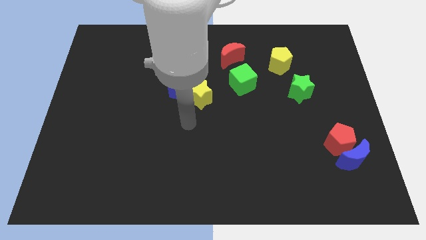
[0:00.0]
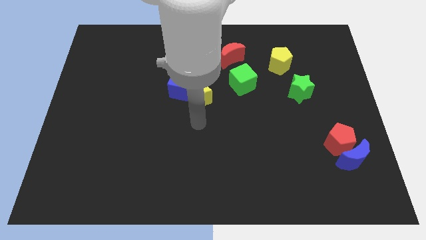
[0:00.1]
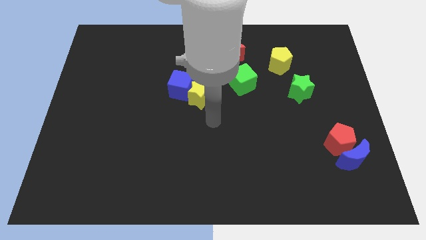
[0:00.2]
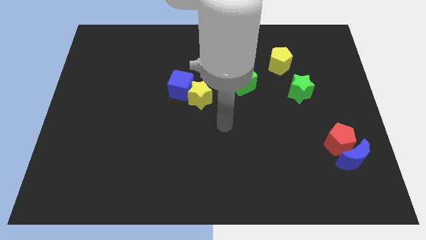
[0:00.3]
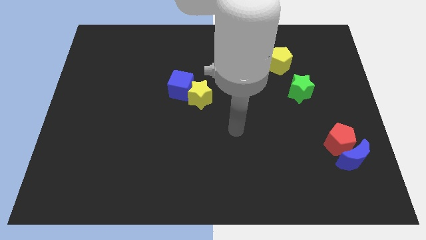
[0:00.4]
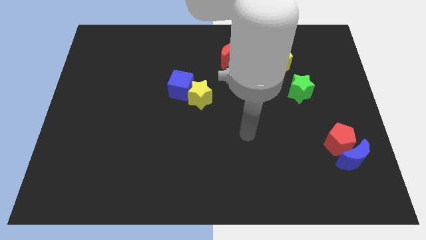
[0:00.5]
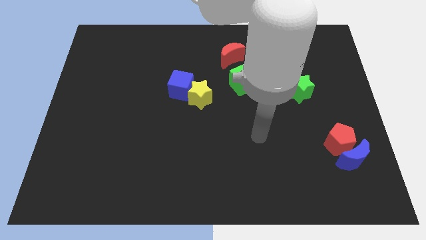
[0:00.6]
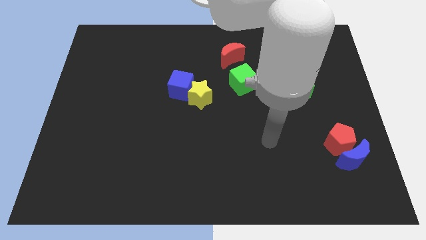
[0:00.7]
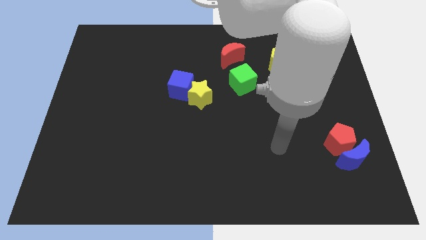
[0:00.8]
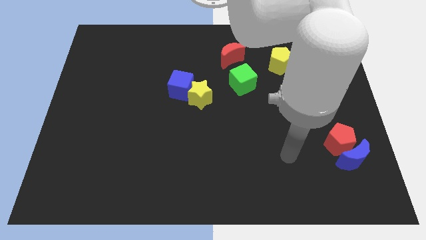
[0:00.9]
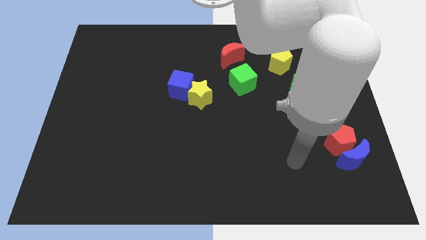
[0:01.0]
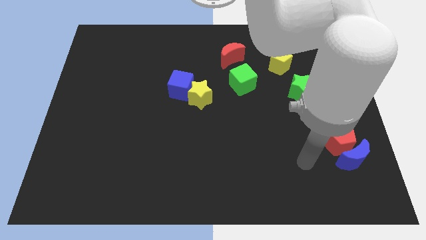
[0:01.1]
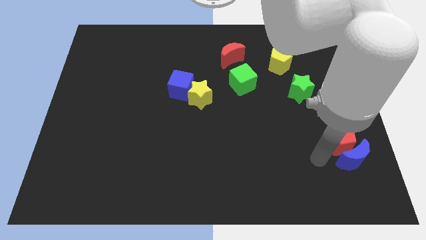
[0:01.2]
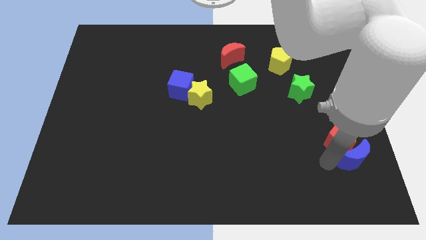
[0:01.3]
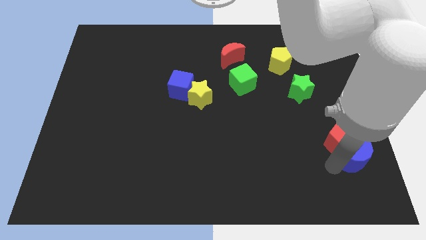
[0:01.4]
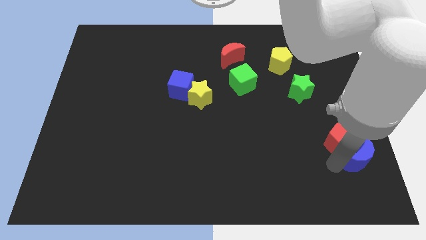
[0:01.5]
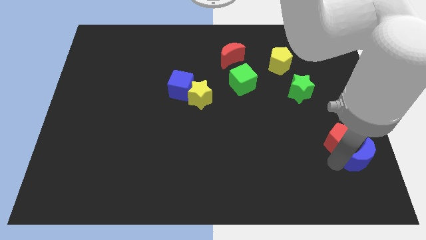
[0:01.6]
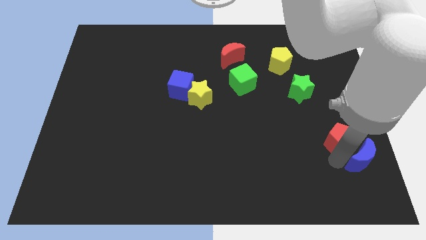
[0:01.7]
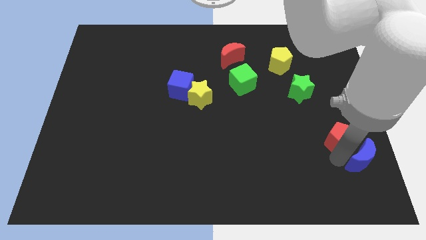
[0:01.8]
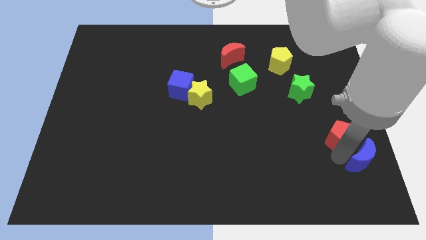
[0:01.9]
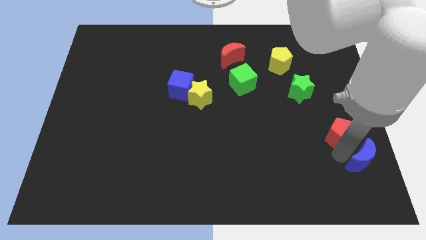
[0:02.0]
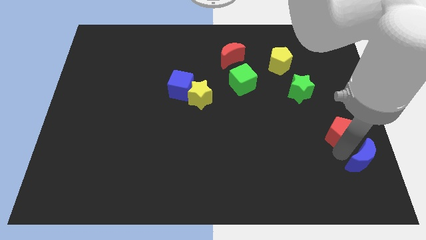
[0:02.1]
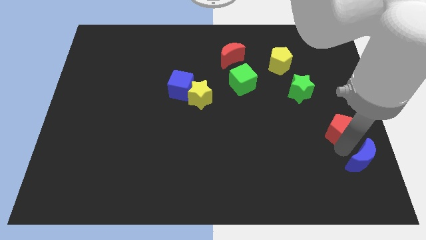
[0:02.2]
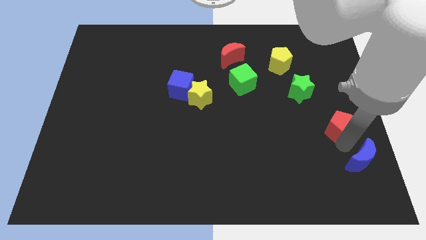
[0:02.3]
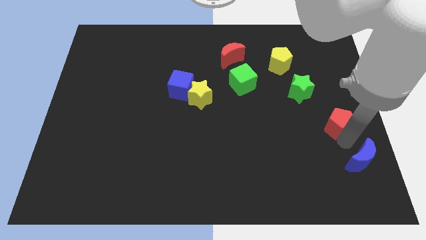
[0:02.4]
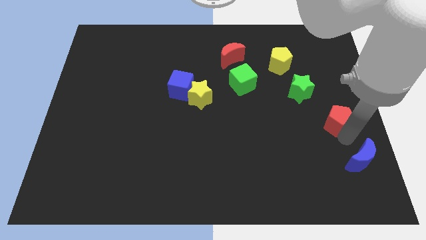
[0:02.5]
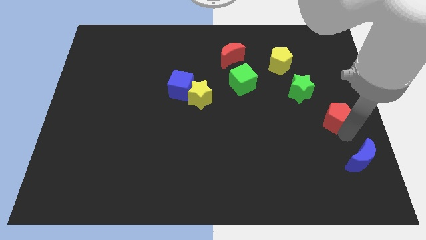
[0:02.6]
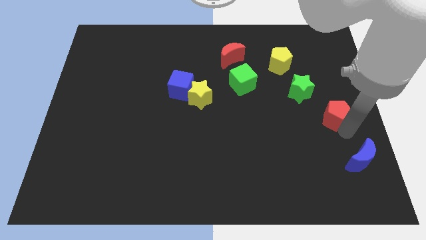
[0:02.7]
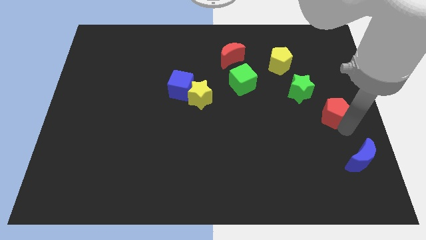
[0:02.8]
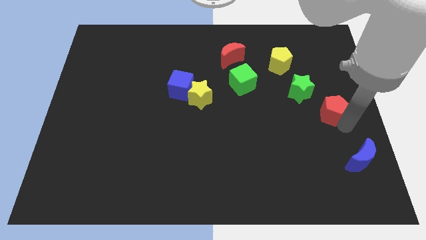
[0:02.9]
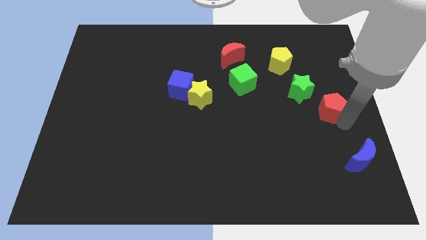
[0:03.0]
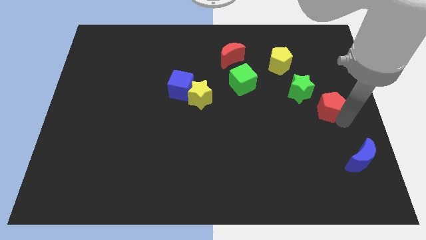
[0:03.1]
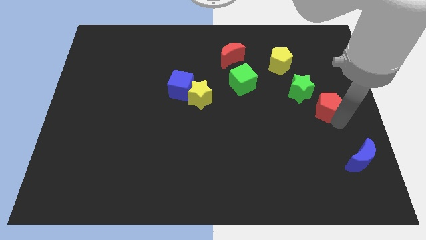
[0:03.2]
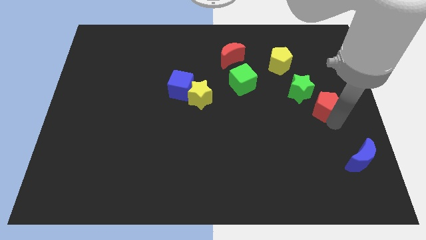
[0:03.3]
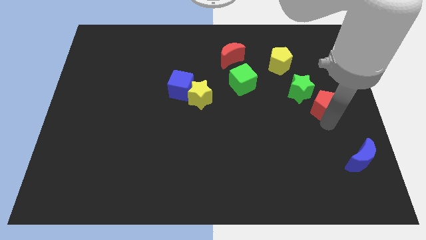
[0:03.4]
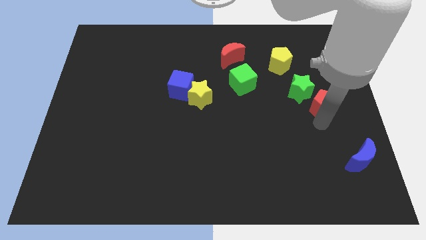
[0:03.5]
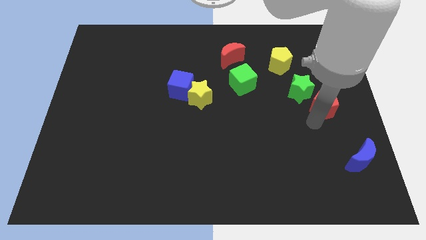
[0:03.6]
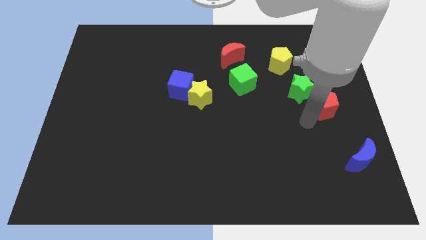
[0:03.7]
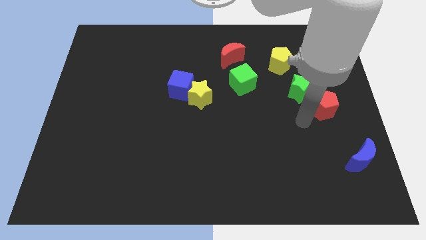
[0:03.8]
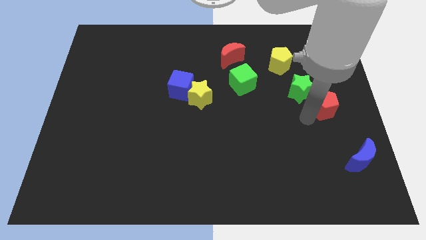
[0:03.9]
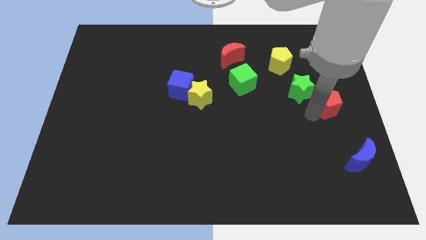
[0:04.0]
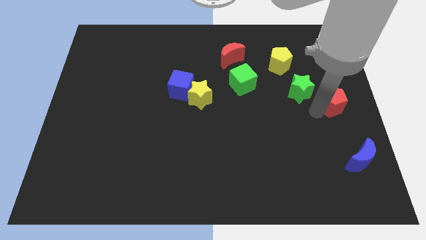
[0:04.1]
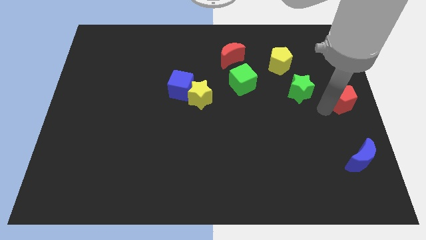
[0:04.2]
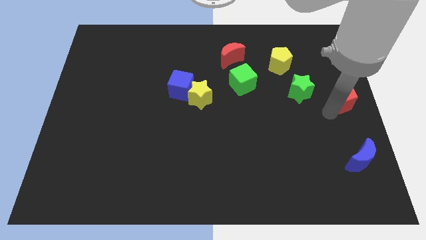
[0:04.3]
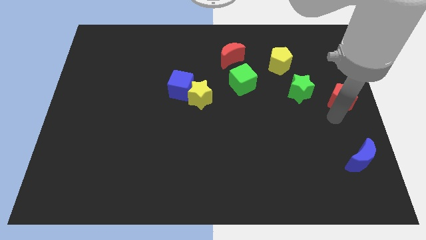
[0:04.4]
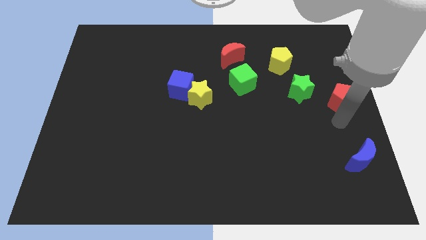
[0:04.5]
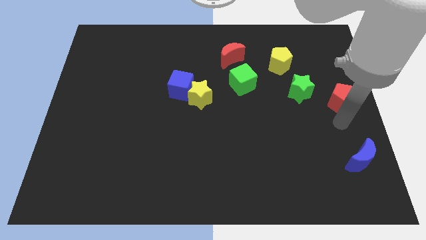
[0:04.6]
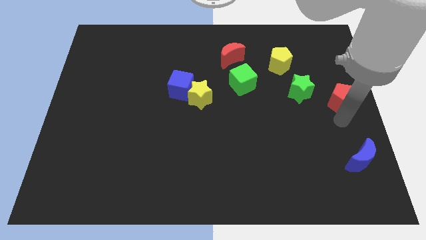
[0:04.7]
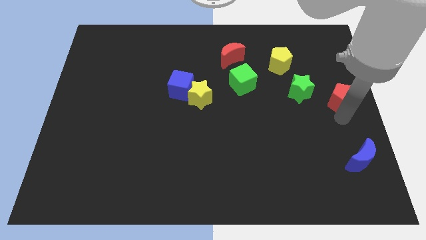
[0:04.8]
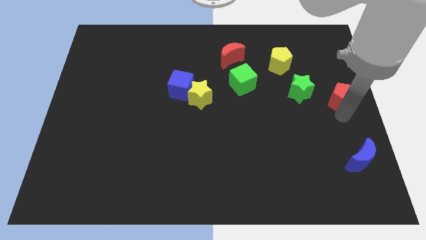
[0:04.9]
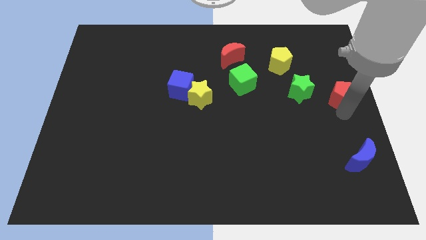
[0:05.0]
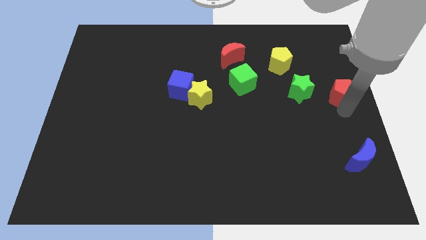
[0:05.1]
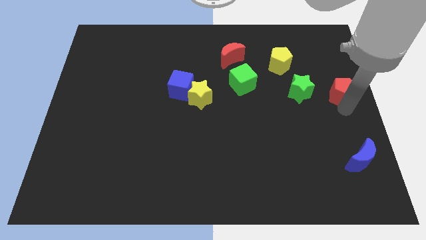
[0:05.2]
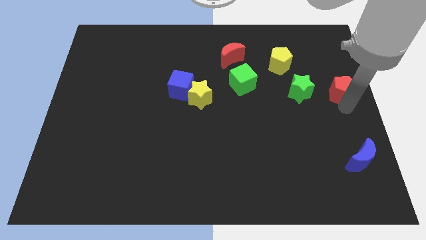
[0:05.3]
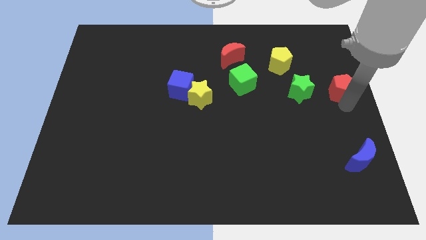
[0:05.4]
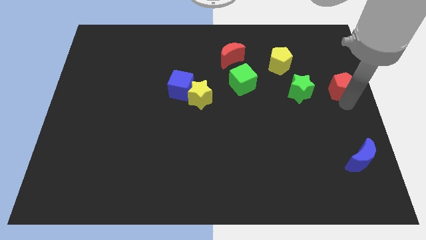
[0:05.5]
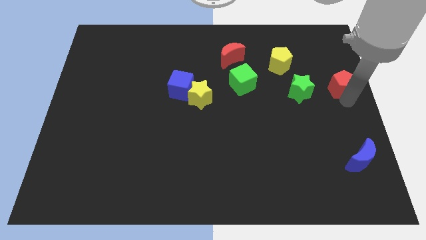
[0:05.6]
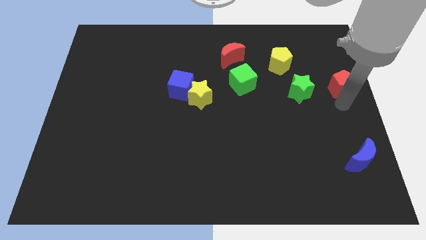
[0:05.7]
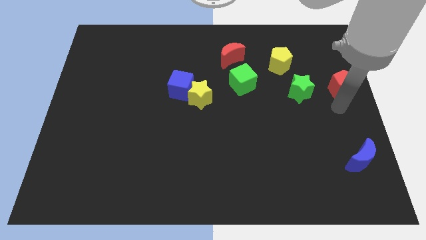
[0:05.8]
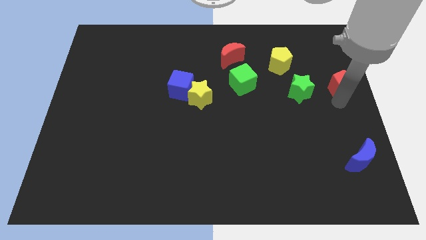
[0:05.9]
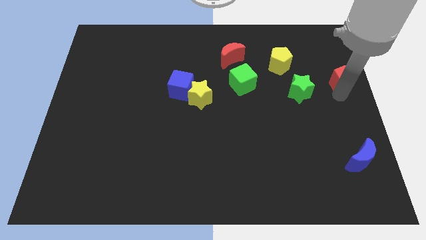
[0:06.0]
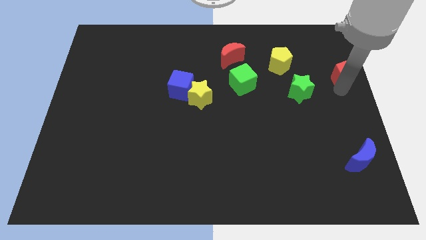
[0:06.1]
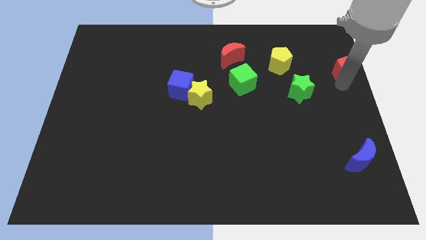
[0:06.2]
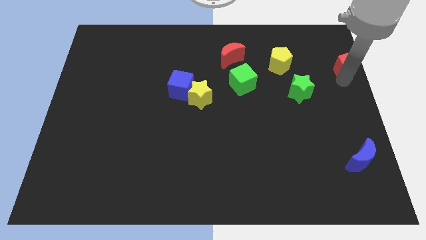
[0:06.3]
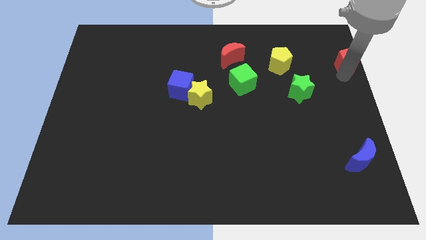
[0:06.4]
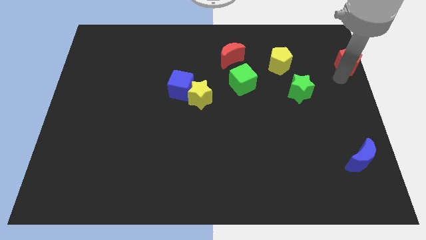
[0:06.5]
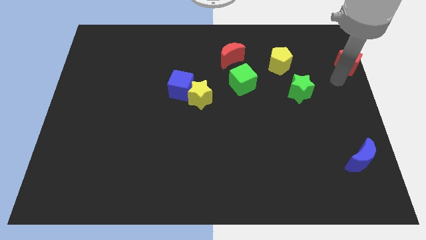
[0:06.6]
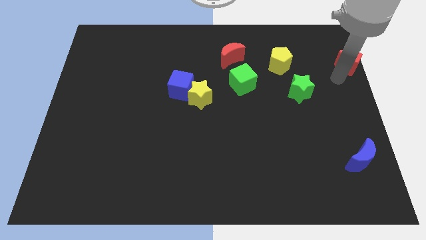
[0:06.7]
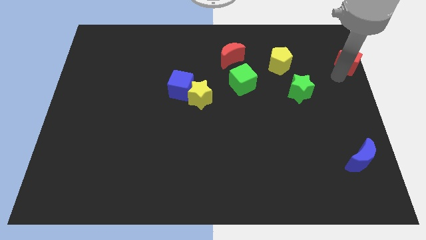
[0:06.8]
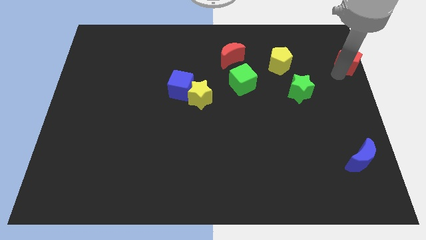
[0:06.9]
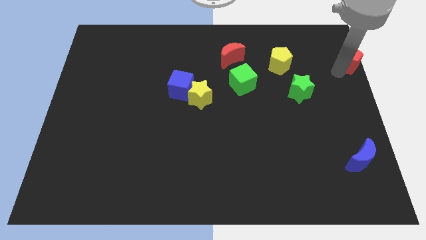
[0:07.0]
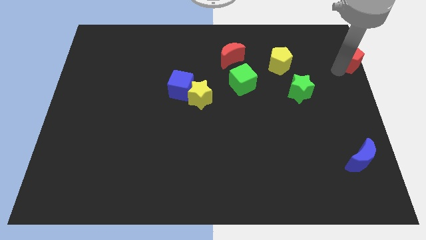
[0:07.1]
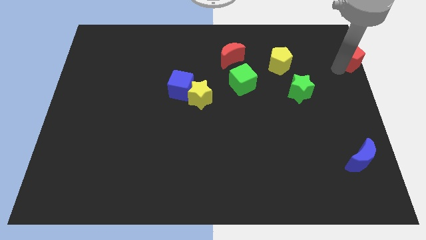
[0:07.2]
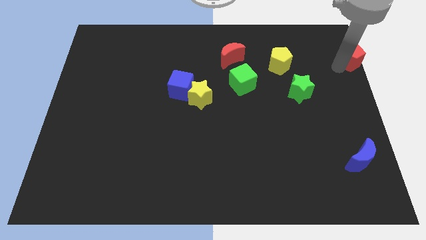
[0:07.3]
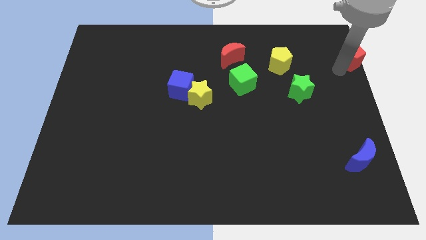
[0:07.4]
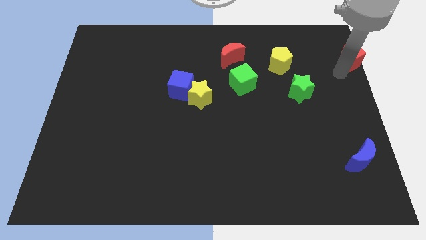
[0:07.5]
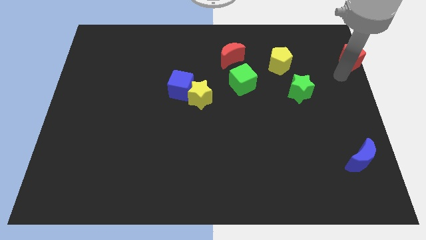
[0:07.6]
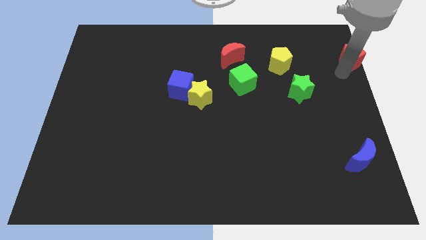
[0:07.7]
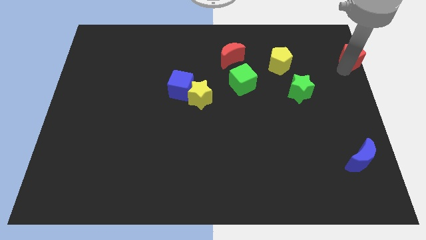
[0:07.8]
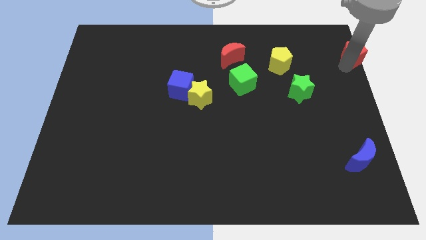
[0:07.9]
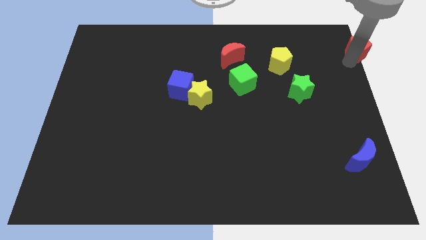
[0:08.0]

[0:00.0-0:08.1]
push the red pentagon to the top right
